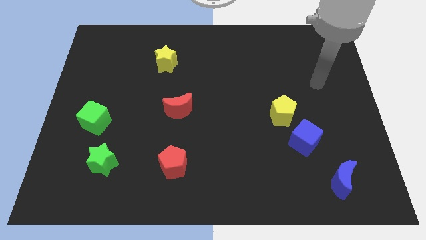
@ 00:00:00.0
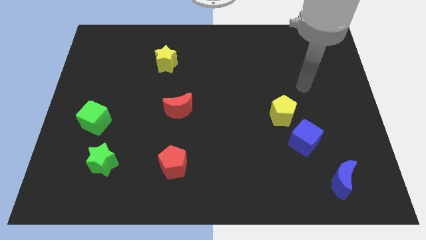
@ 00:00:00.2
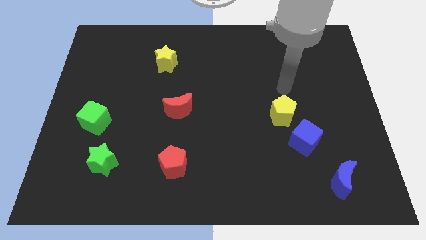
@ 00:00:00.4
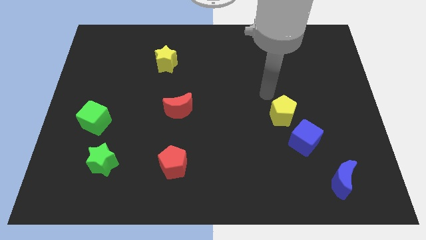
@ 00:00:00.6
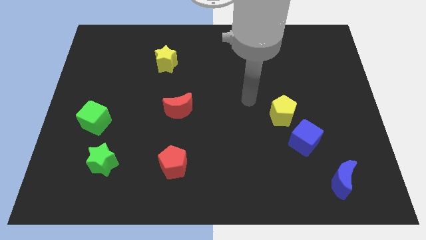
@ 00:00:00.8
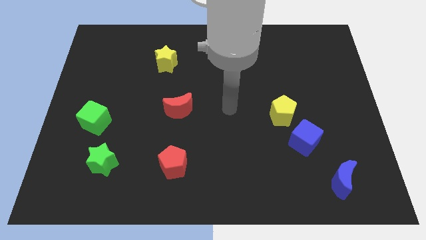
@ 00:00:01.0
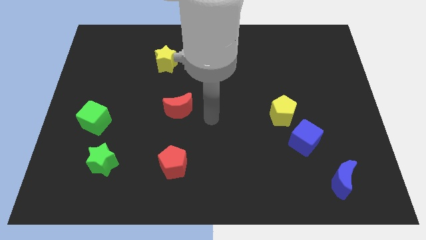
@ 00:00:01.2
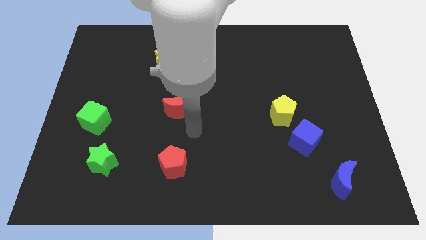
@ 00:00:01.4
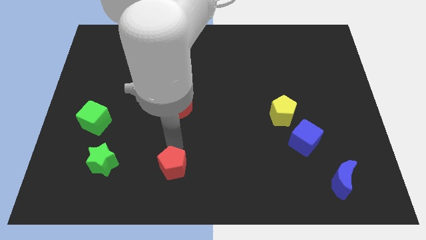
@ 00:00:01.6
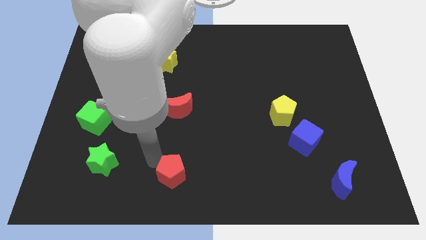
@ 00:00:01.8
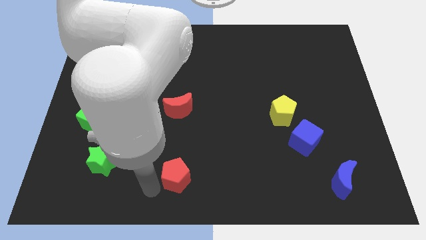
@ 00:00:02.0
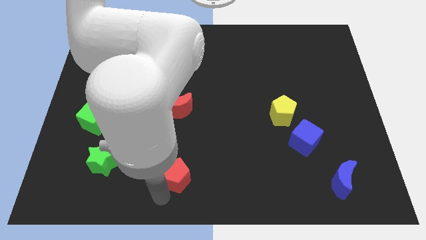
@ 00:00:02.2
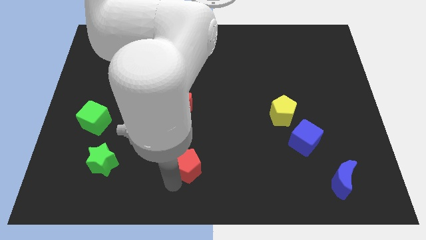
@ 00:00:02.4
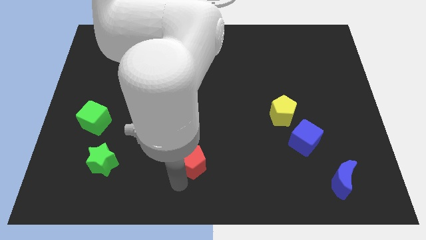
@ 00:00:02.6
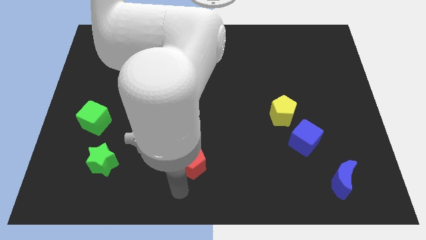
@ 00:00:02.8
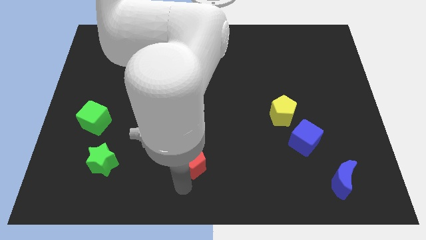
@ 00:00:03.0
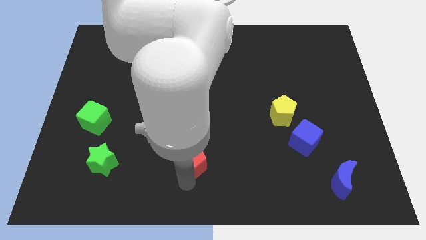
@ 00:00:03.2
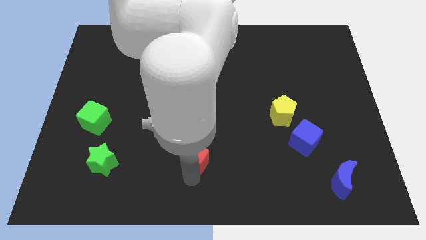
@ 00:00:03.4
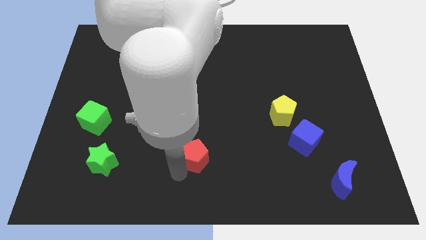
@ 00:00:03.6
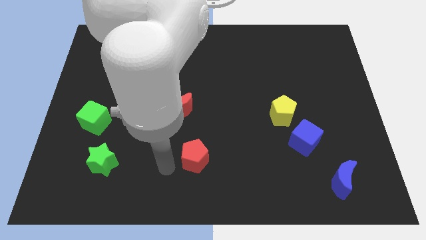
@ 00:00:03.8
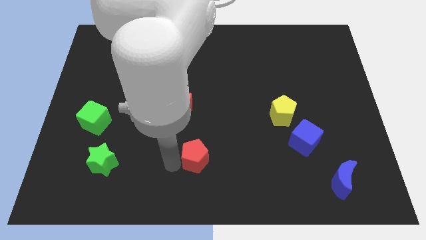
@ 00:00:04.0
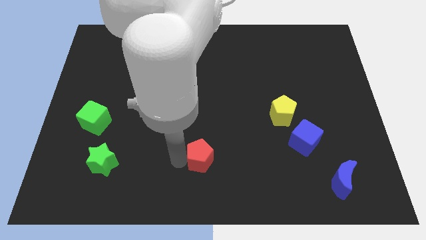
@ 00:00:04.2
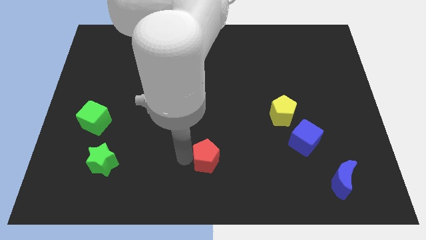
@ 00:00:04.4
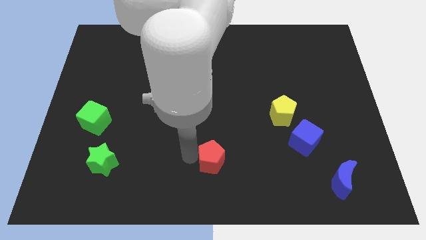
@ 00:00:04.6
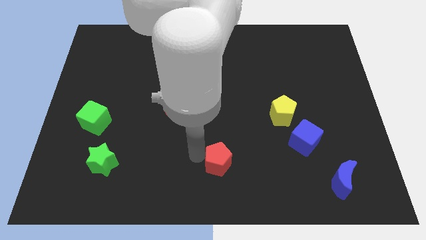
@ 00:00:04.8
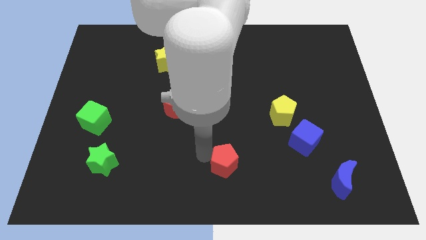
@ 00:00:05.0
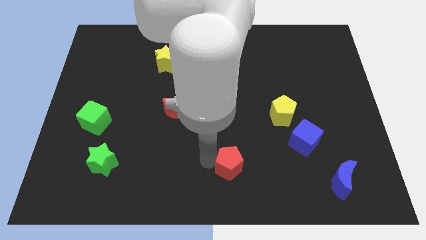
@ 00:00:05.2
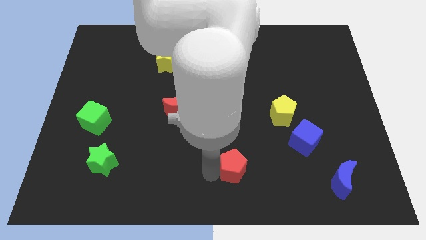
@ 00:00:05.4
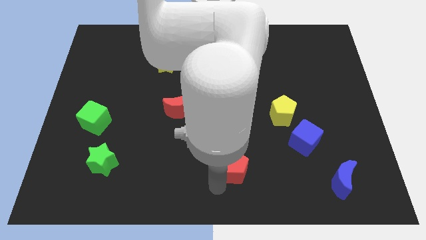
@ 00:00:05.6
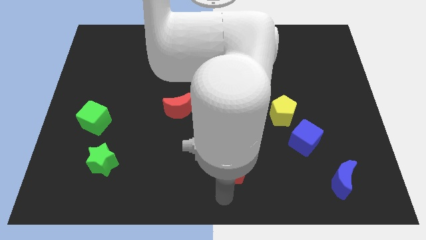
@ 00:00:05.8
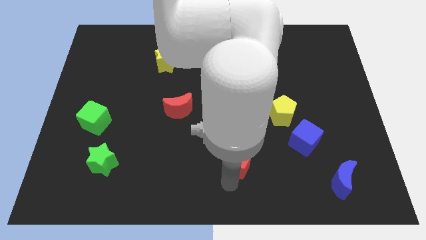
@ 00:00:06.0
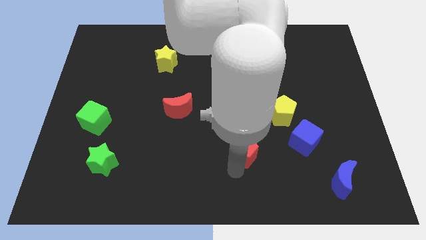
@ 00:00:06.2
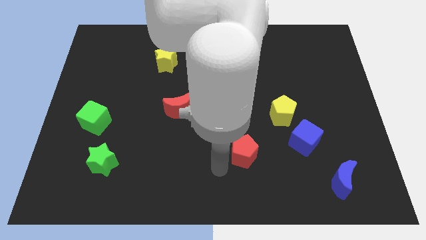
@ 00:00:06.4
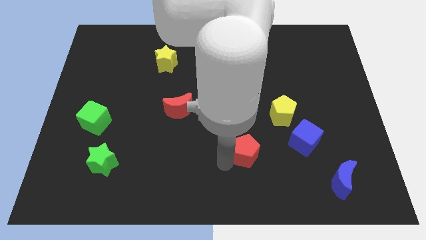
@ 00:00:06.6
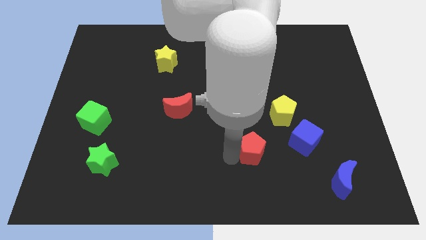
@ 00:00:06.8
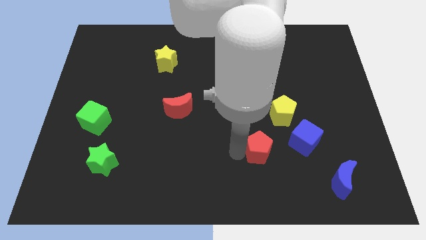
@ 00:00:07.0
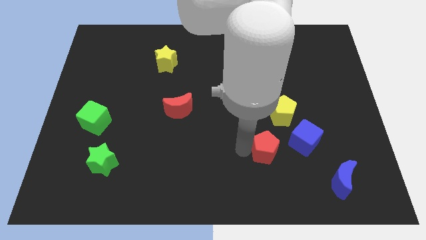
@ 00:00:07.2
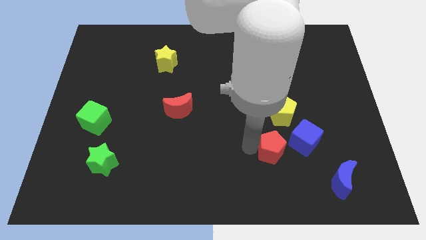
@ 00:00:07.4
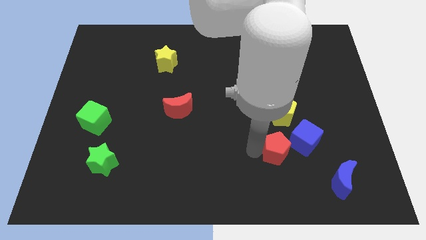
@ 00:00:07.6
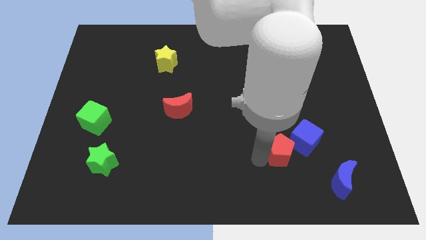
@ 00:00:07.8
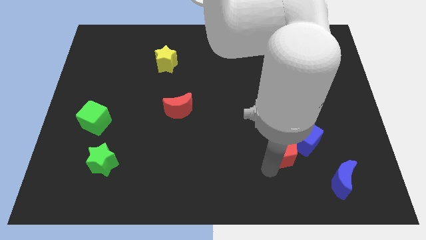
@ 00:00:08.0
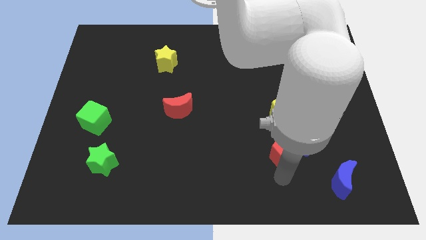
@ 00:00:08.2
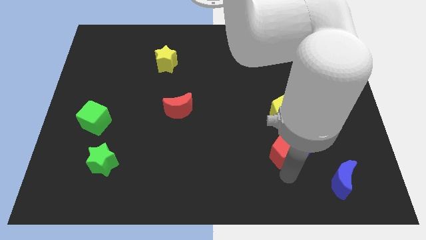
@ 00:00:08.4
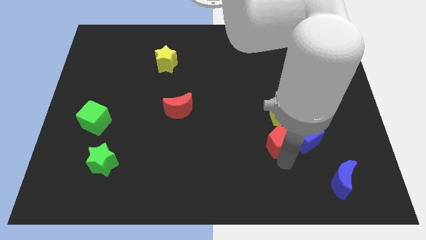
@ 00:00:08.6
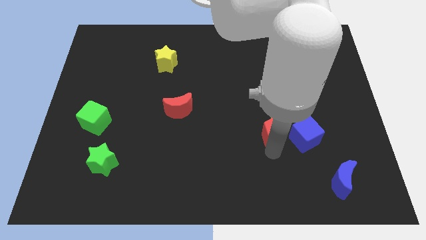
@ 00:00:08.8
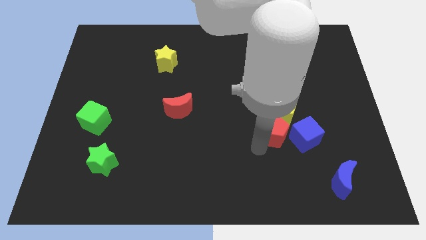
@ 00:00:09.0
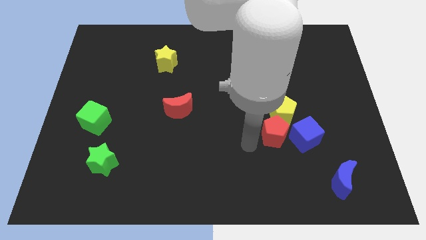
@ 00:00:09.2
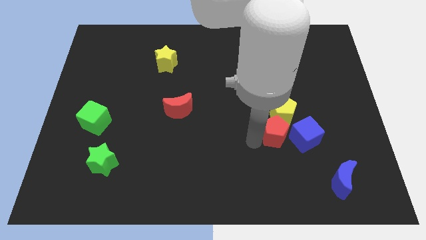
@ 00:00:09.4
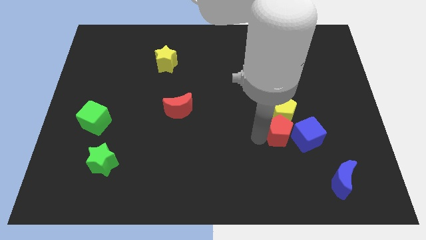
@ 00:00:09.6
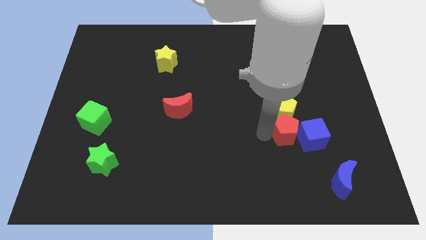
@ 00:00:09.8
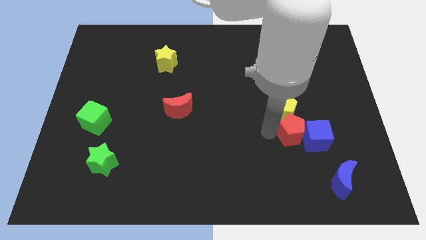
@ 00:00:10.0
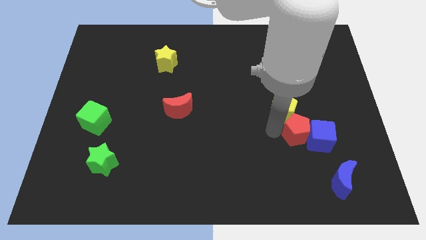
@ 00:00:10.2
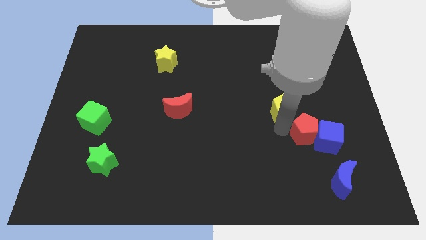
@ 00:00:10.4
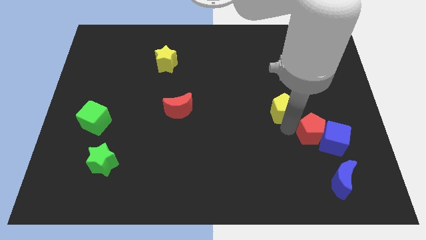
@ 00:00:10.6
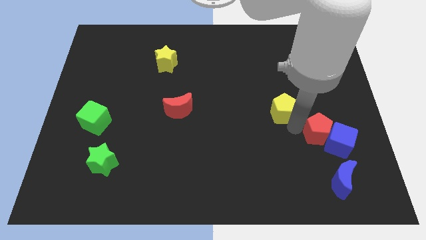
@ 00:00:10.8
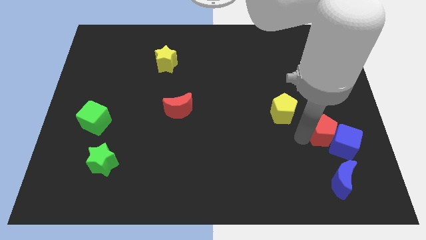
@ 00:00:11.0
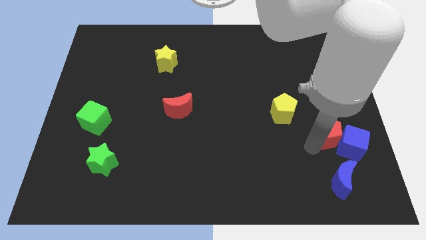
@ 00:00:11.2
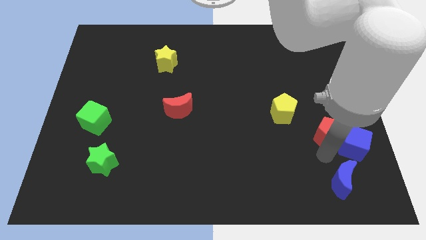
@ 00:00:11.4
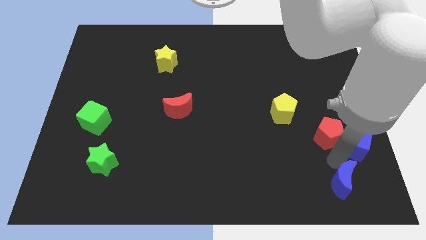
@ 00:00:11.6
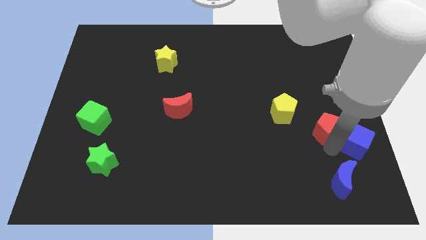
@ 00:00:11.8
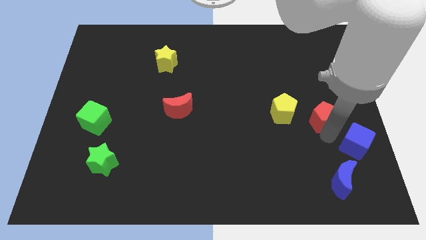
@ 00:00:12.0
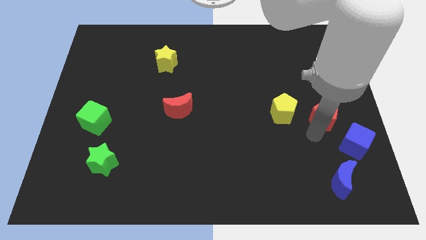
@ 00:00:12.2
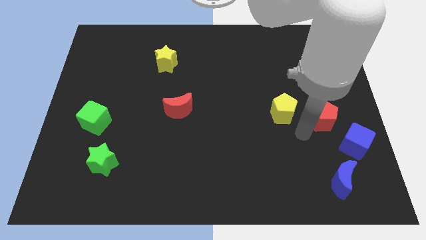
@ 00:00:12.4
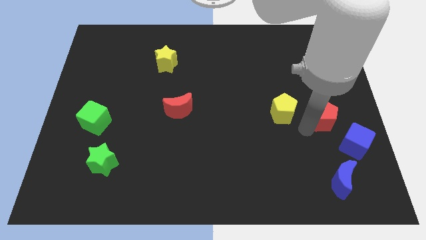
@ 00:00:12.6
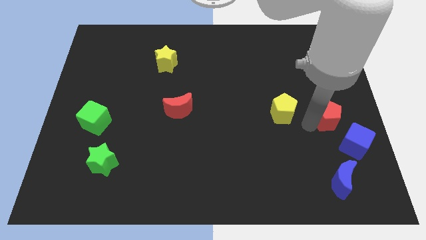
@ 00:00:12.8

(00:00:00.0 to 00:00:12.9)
move the red pentagon to the center right

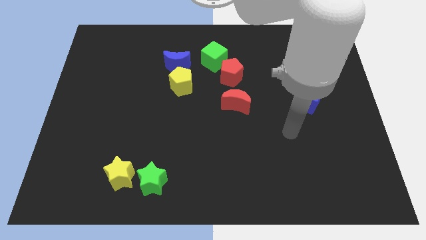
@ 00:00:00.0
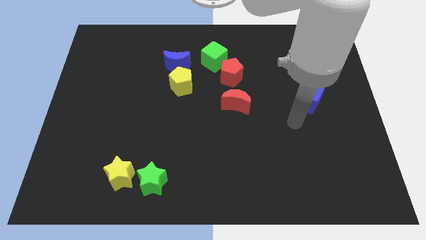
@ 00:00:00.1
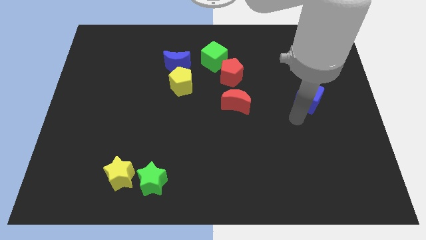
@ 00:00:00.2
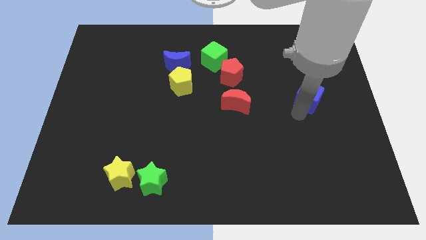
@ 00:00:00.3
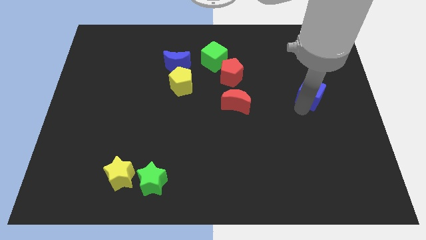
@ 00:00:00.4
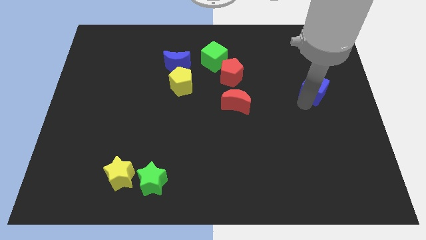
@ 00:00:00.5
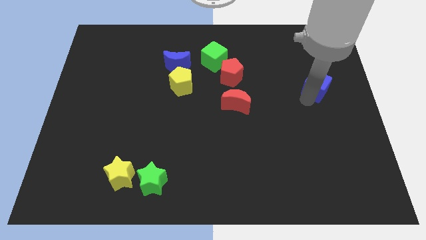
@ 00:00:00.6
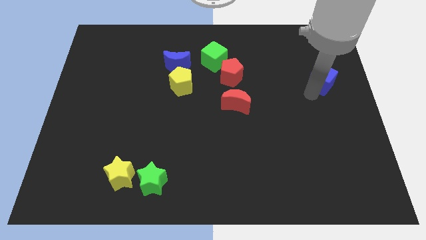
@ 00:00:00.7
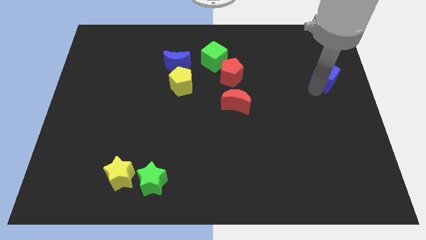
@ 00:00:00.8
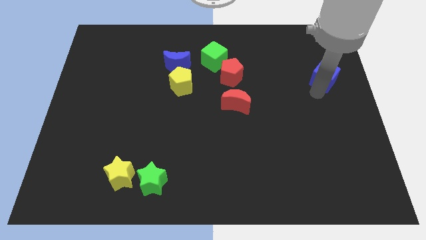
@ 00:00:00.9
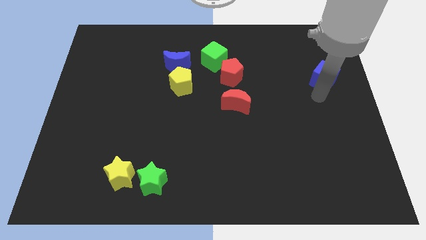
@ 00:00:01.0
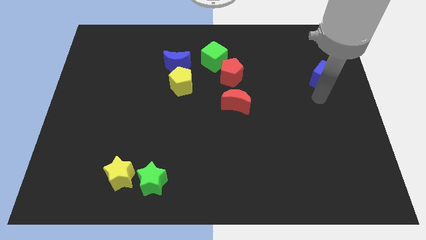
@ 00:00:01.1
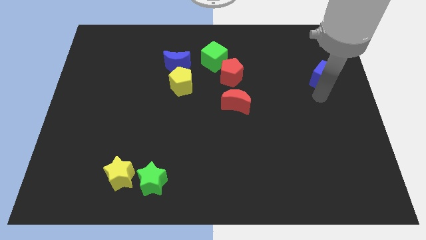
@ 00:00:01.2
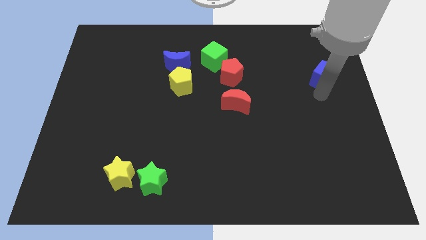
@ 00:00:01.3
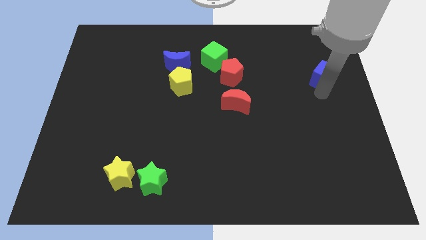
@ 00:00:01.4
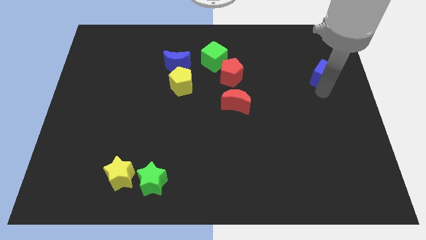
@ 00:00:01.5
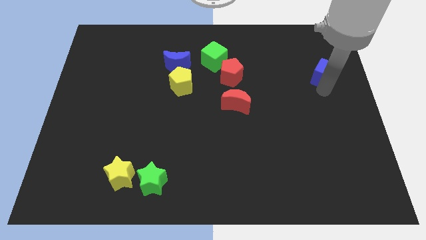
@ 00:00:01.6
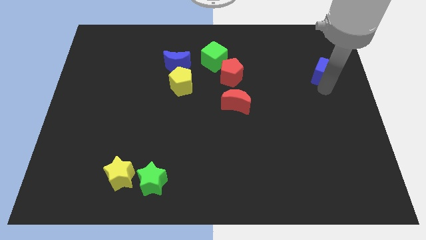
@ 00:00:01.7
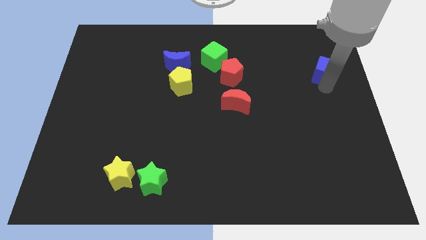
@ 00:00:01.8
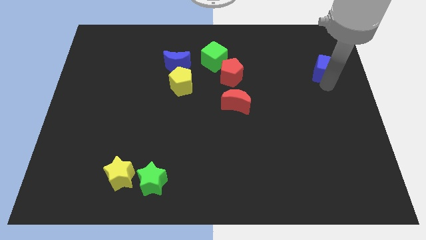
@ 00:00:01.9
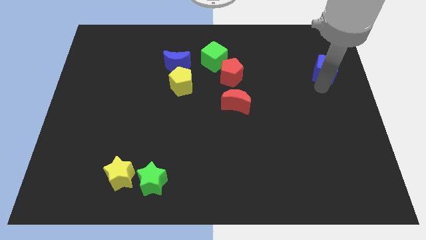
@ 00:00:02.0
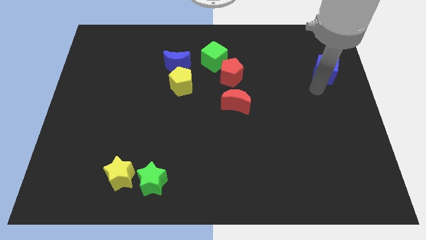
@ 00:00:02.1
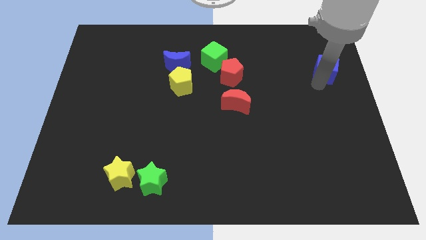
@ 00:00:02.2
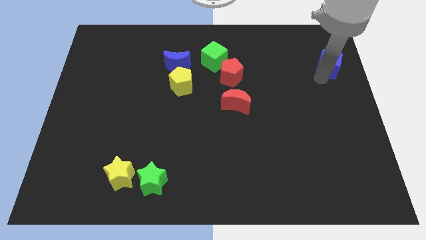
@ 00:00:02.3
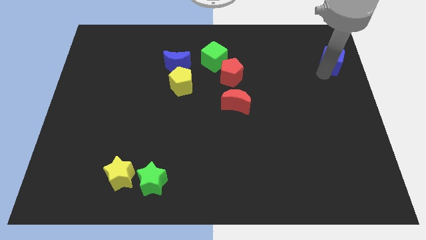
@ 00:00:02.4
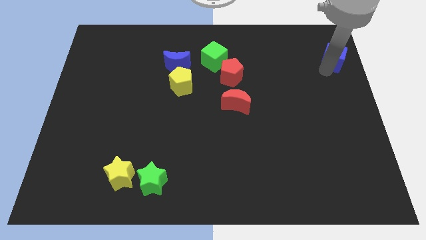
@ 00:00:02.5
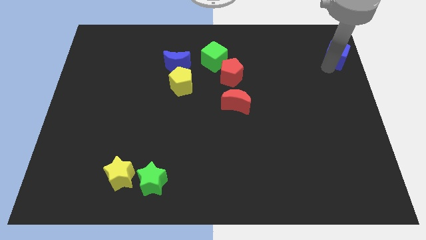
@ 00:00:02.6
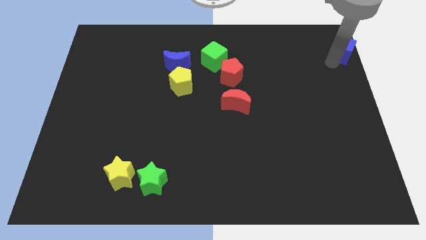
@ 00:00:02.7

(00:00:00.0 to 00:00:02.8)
move the blue cube to the upper right corner
